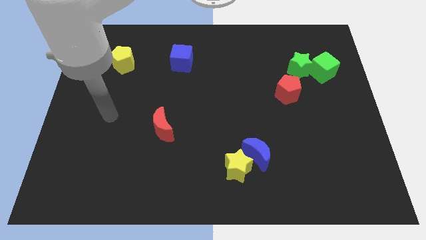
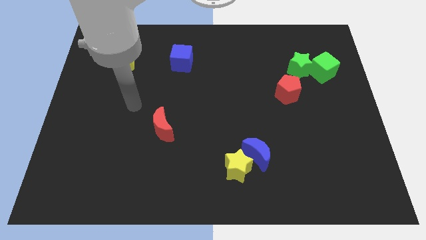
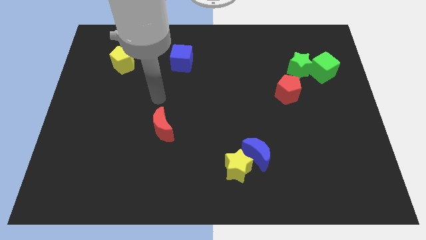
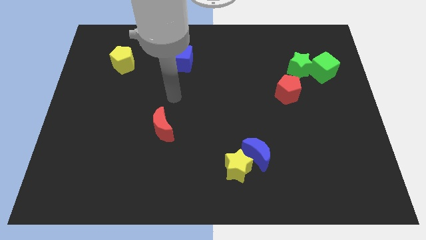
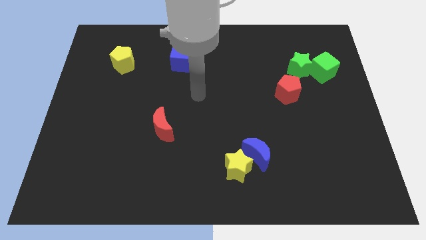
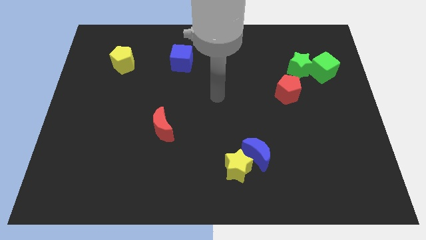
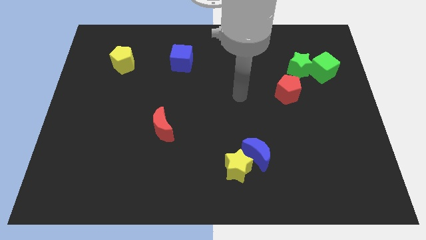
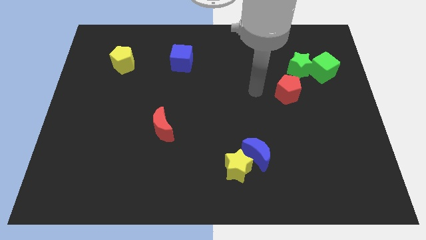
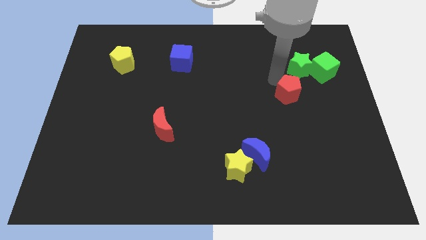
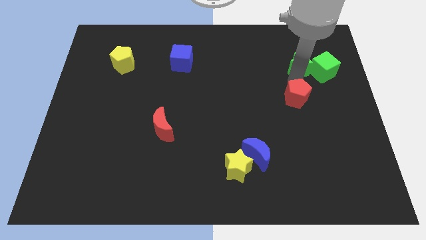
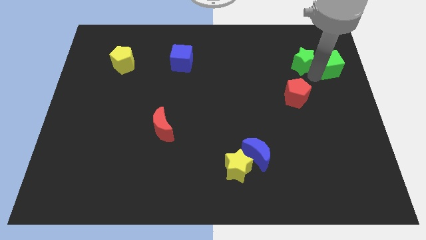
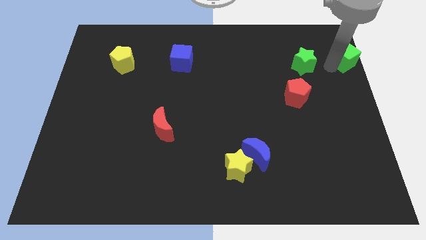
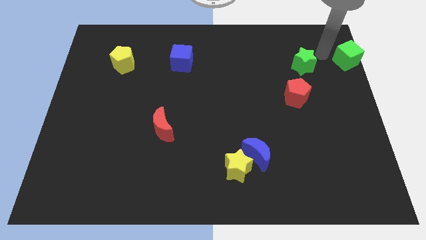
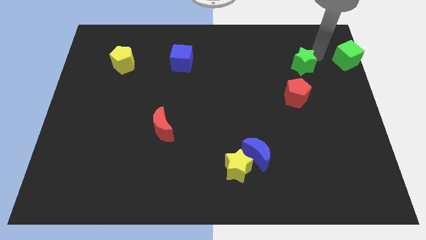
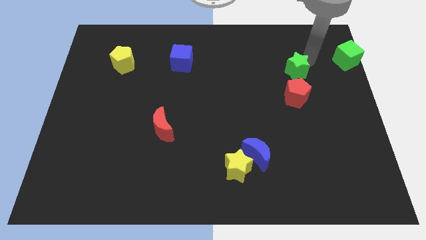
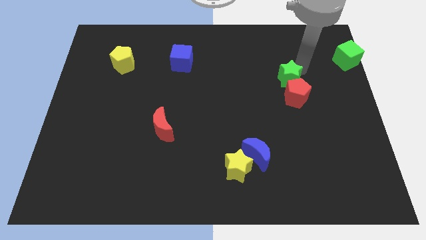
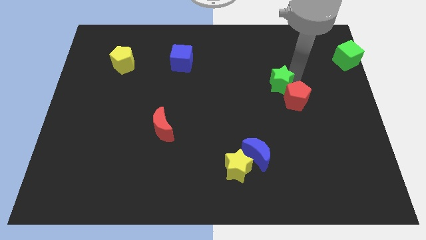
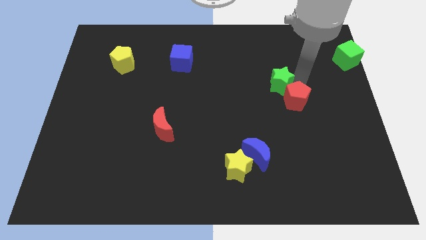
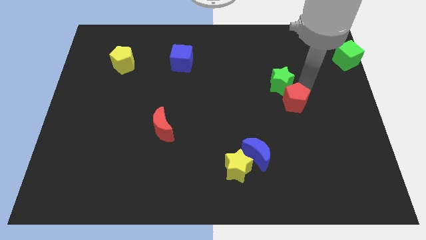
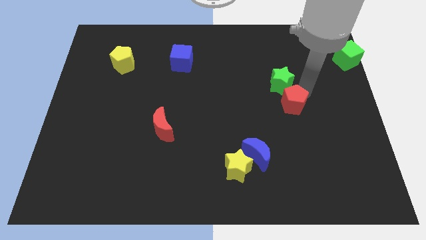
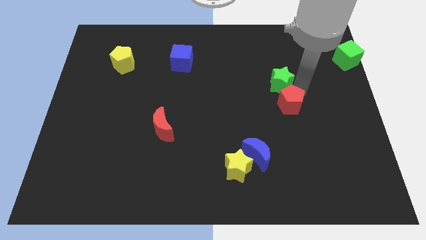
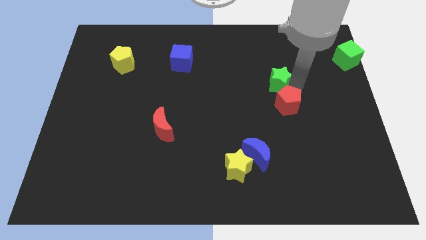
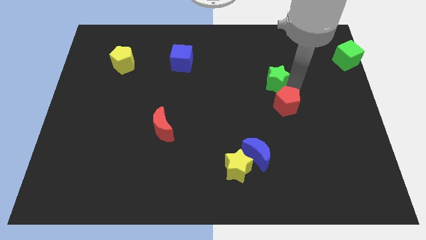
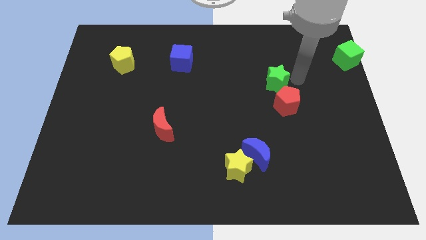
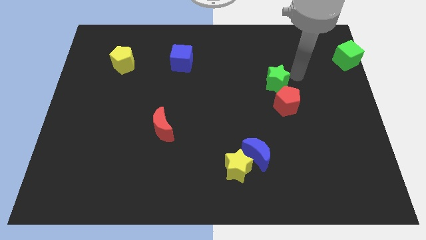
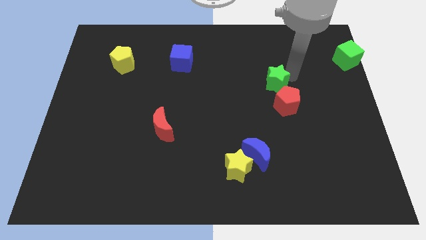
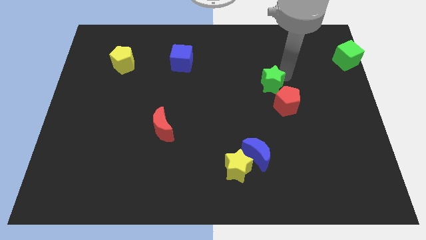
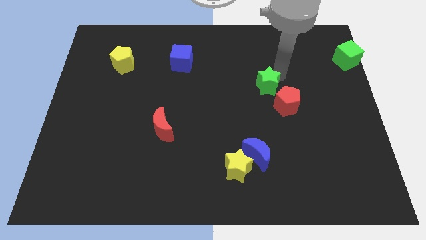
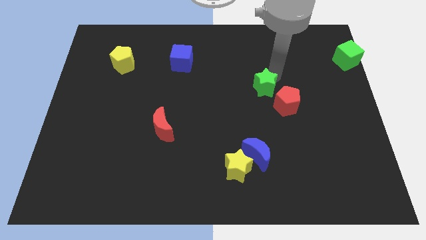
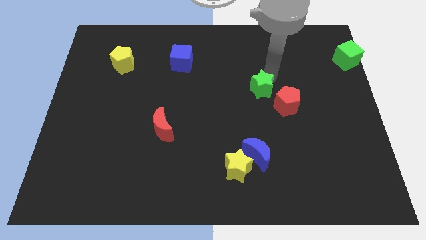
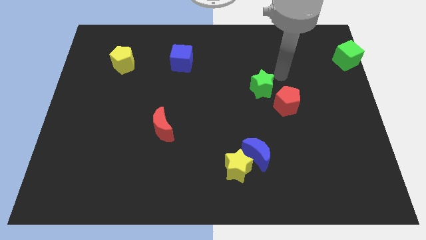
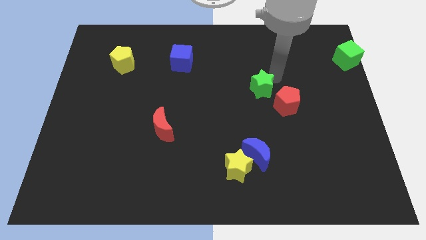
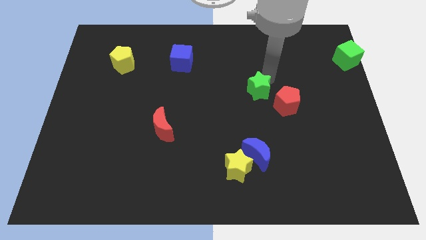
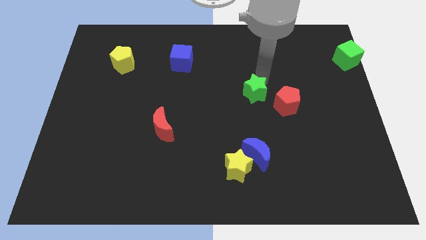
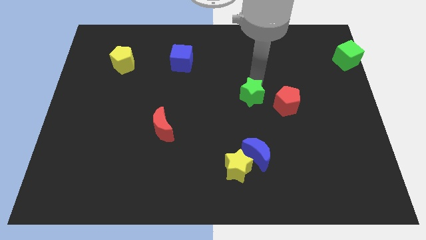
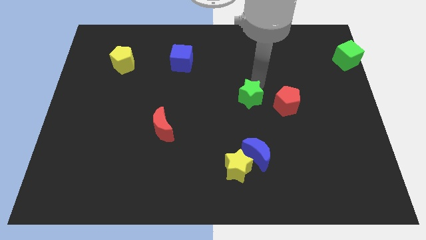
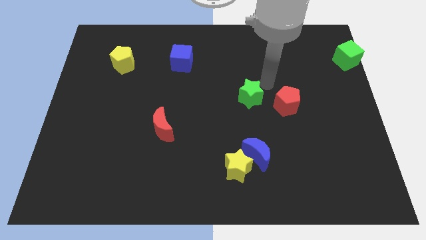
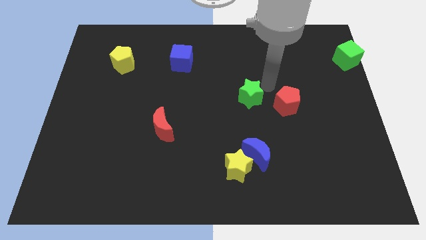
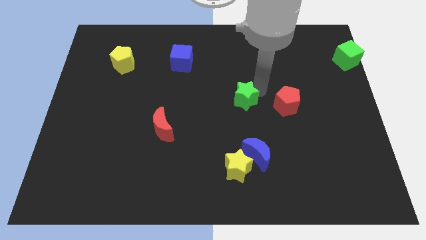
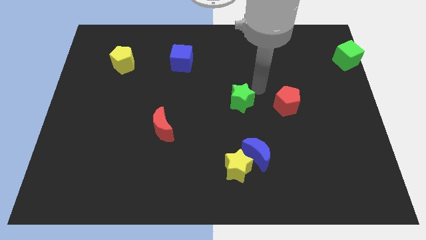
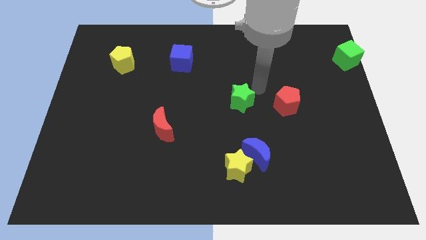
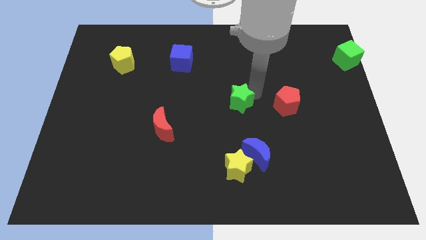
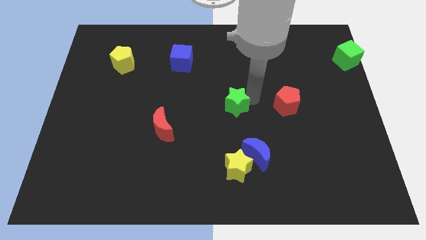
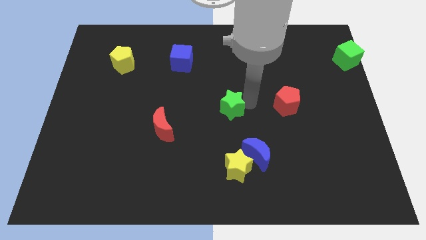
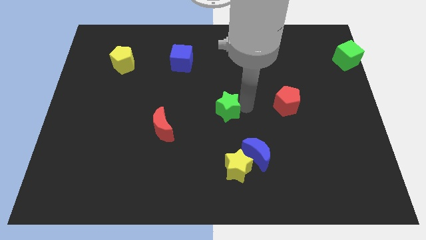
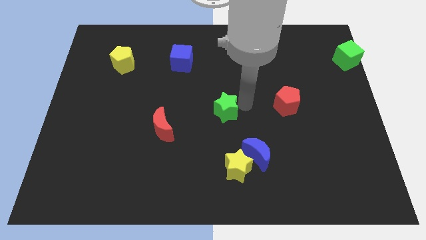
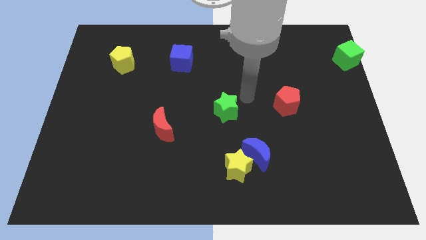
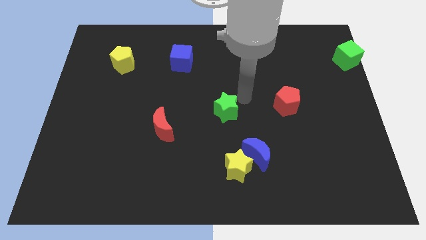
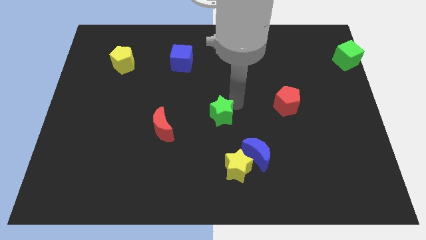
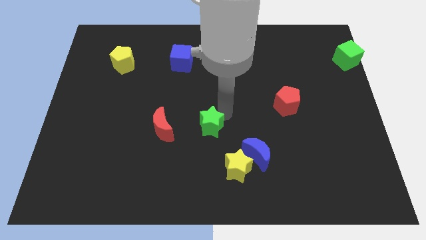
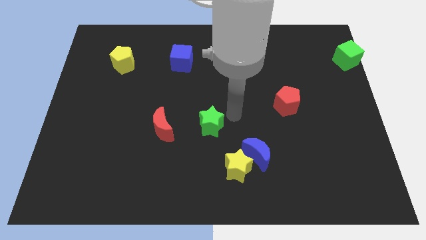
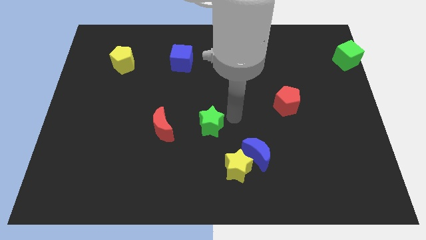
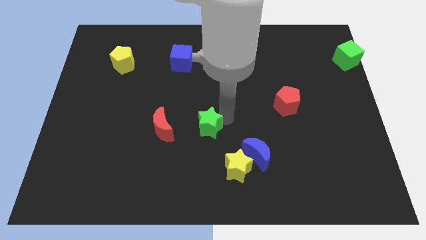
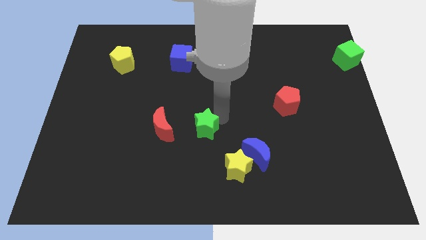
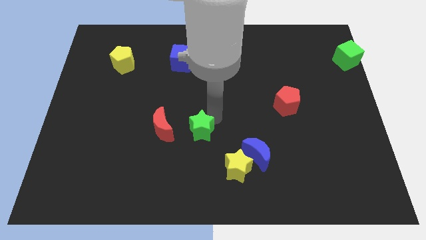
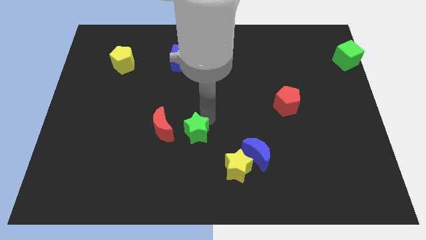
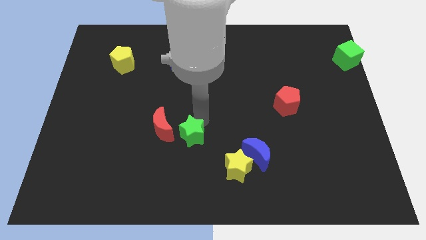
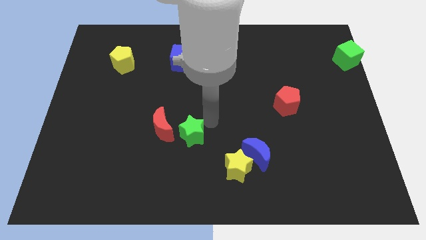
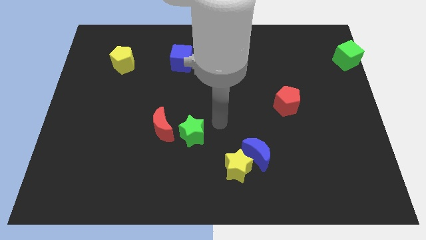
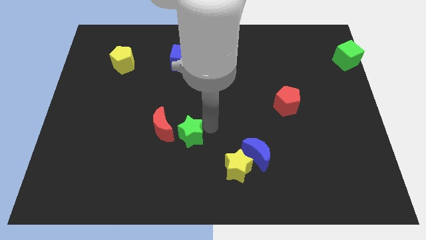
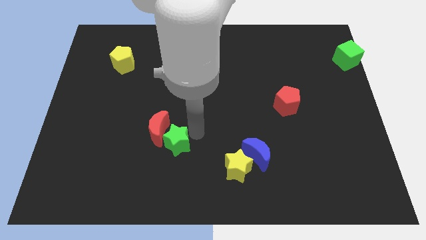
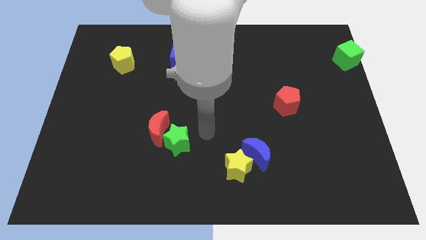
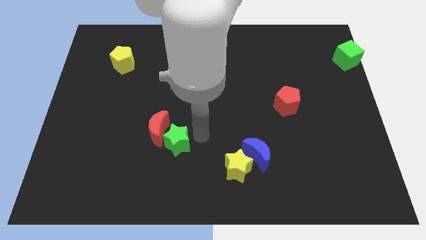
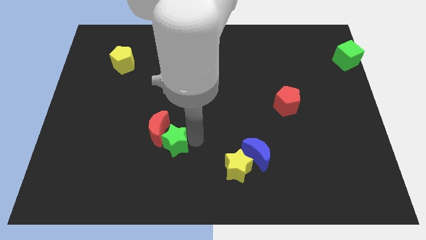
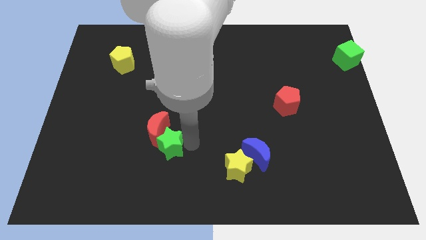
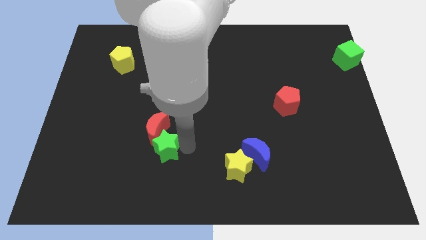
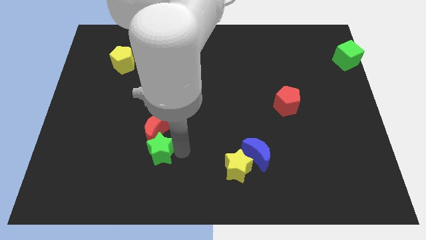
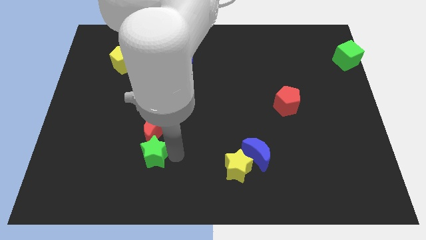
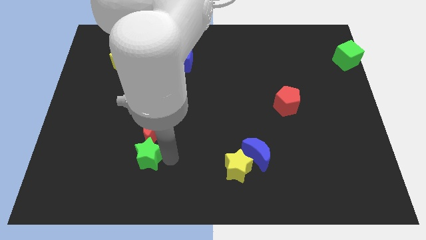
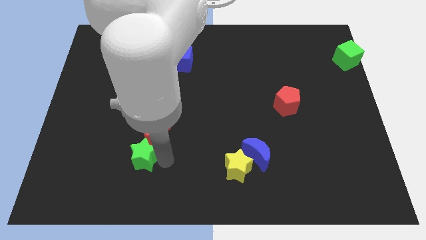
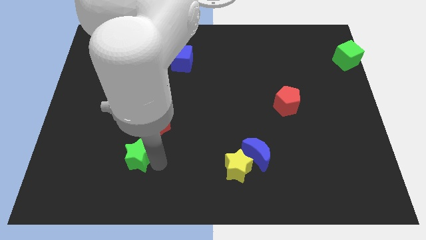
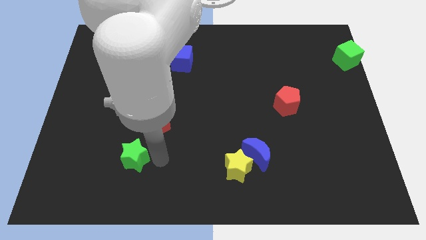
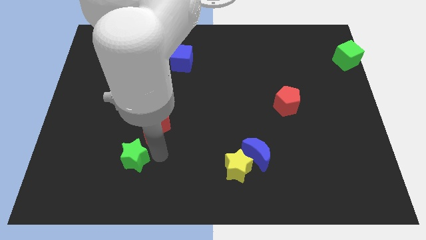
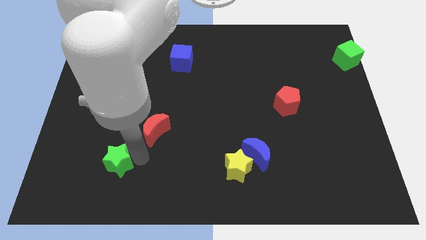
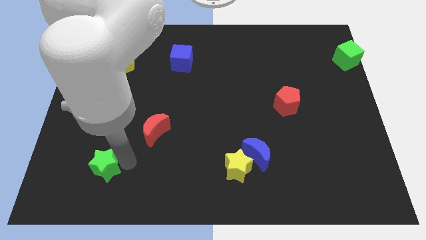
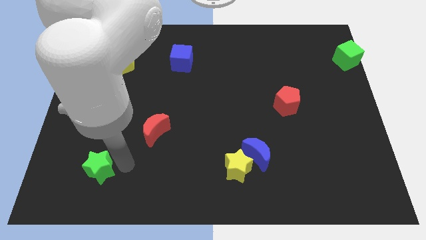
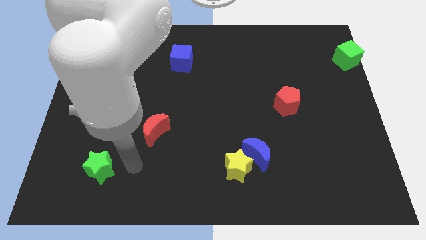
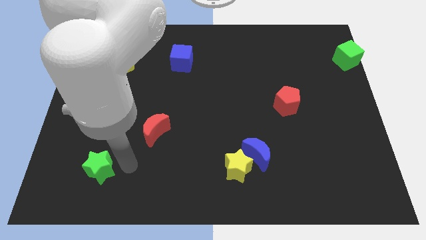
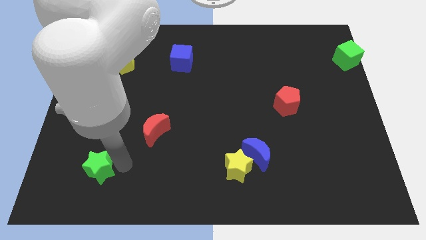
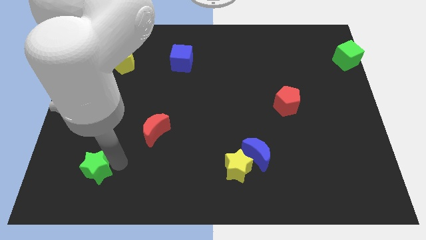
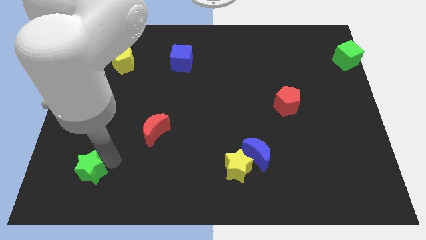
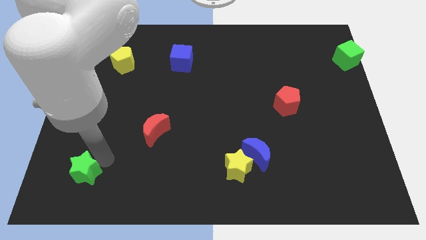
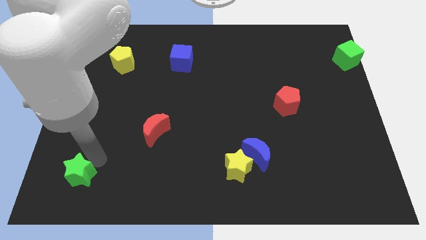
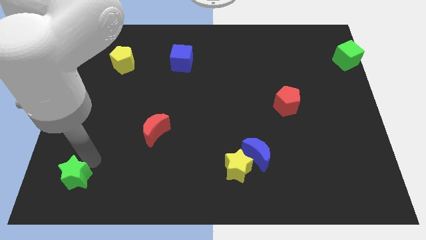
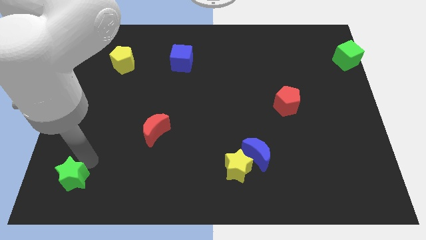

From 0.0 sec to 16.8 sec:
slide the green star to the bottom left
